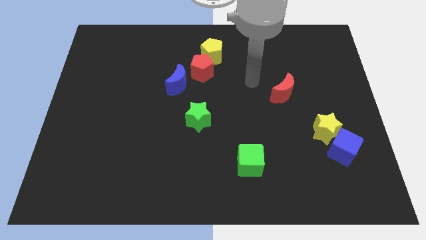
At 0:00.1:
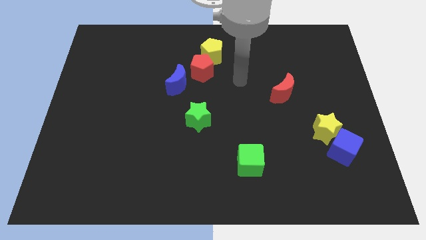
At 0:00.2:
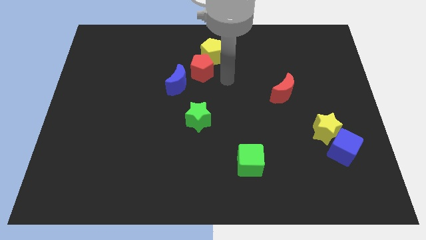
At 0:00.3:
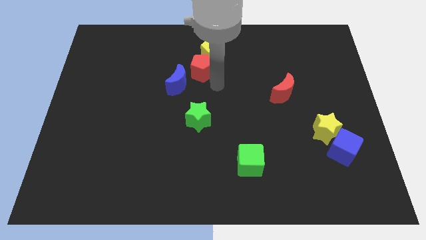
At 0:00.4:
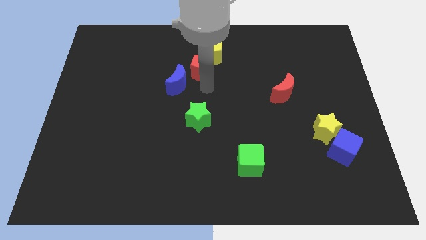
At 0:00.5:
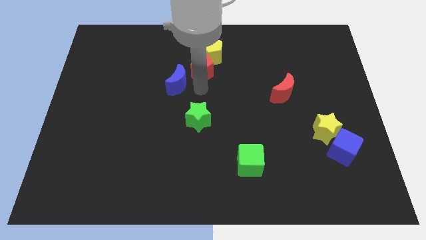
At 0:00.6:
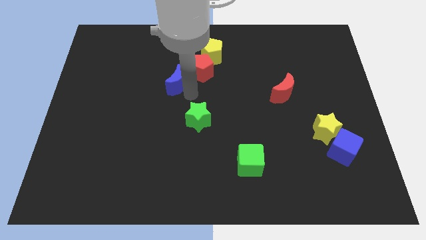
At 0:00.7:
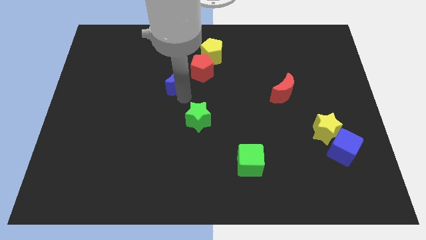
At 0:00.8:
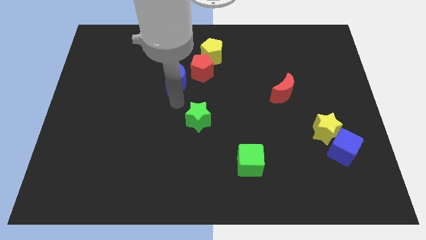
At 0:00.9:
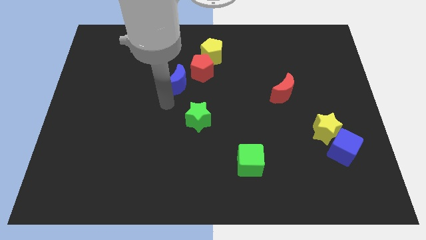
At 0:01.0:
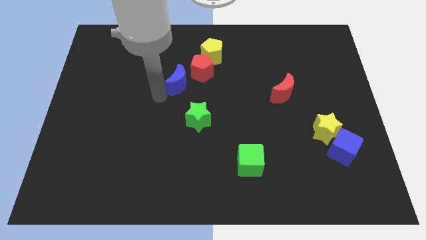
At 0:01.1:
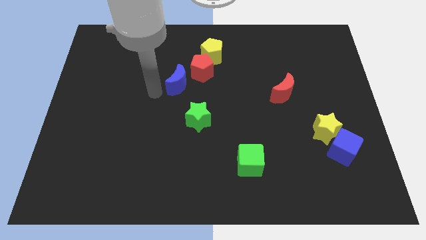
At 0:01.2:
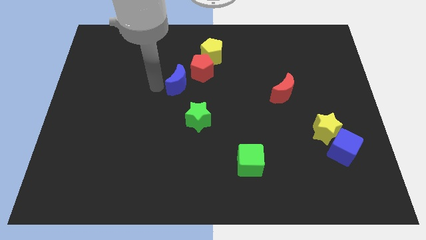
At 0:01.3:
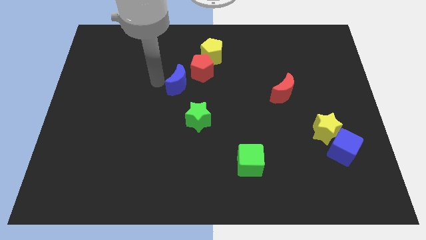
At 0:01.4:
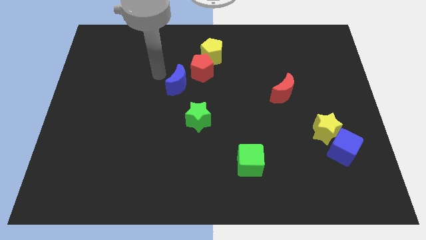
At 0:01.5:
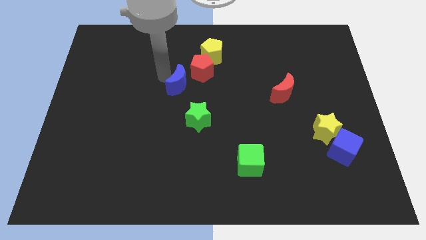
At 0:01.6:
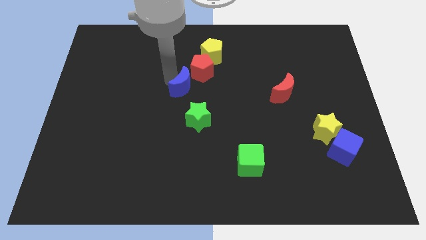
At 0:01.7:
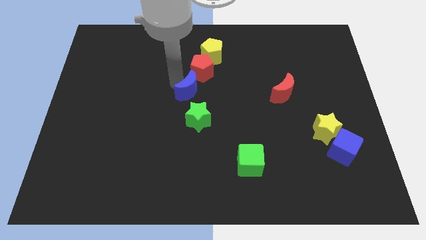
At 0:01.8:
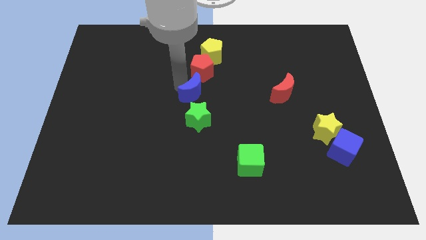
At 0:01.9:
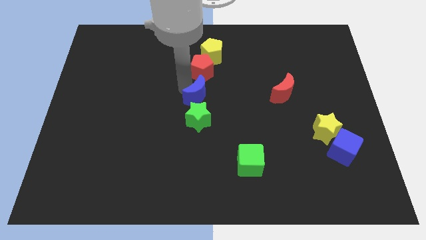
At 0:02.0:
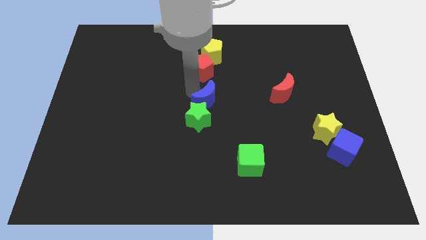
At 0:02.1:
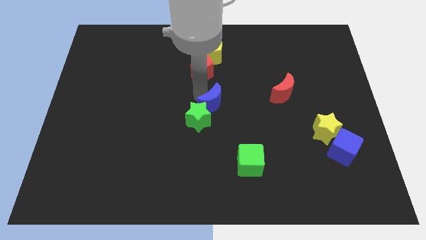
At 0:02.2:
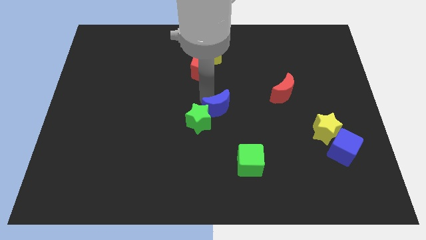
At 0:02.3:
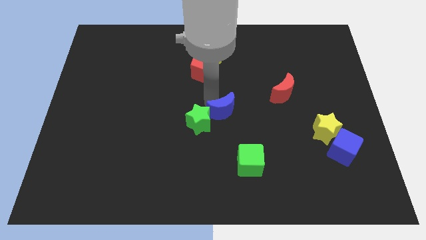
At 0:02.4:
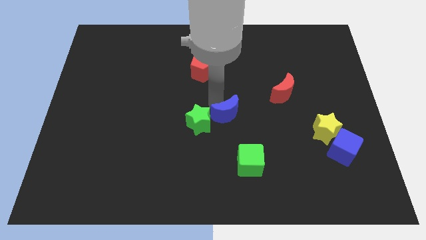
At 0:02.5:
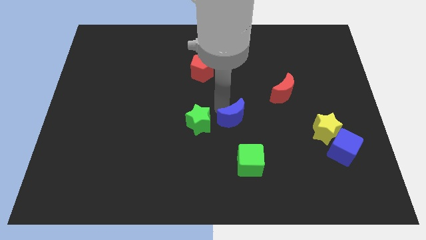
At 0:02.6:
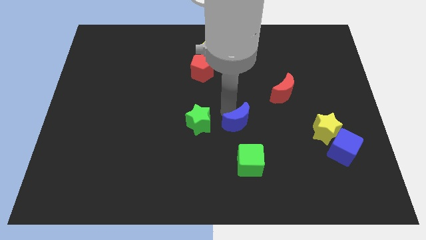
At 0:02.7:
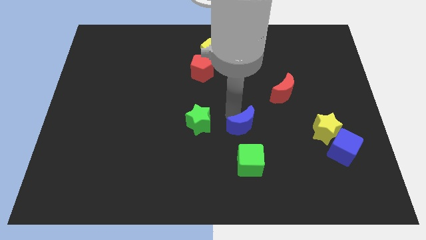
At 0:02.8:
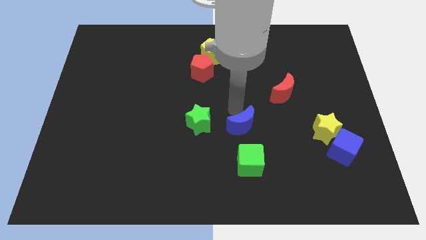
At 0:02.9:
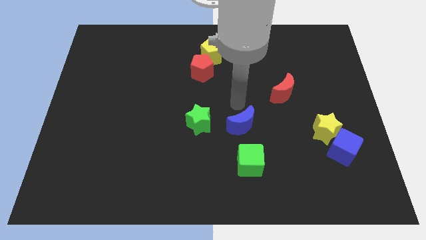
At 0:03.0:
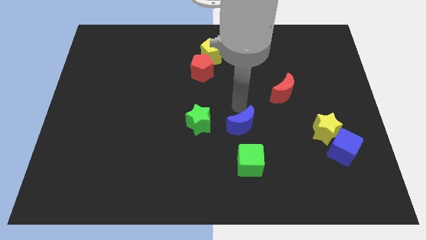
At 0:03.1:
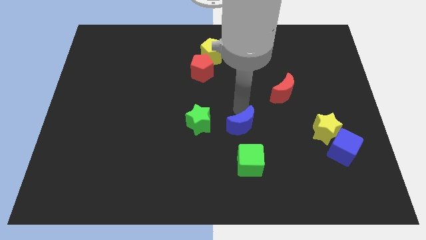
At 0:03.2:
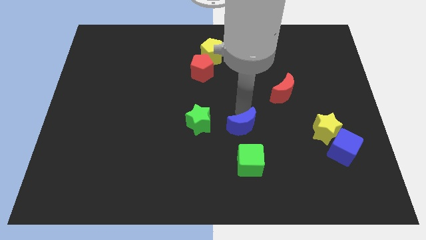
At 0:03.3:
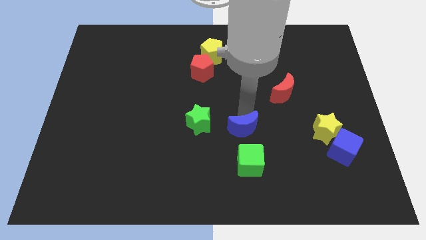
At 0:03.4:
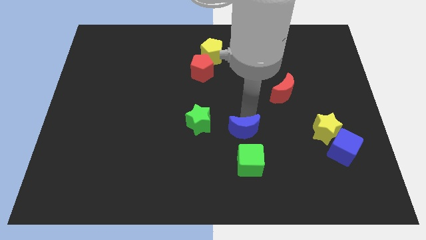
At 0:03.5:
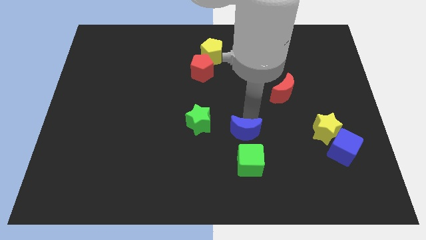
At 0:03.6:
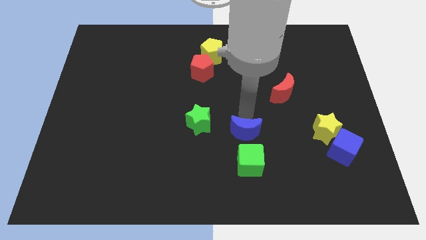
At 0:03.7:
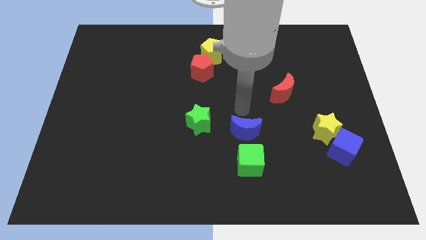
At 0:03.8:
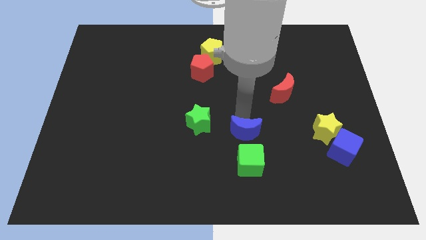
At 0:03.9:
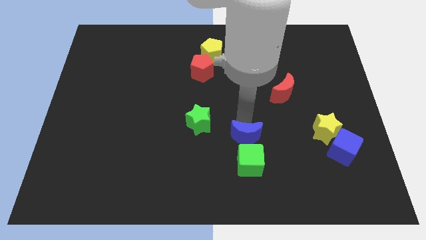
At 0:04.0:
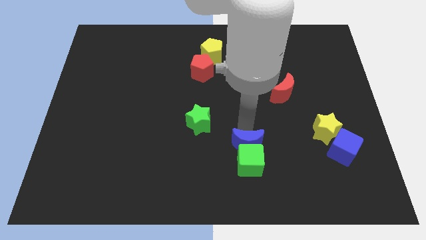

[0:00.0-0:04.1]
put the blue moon towards the green cube

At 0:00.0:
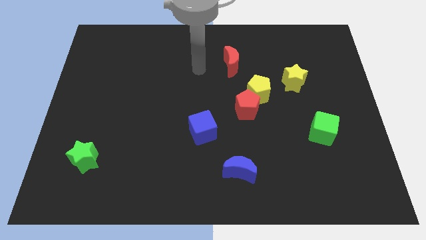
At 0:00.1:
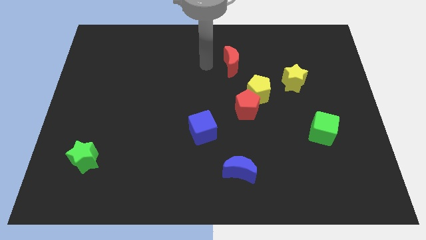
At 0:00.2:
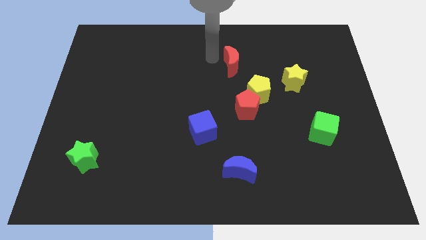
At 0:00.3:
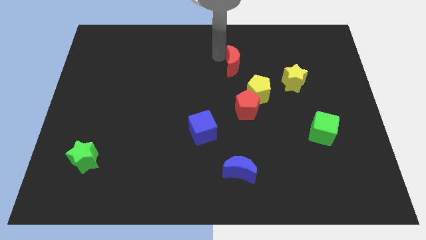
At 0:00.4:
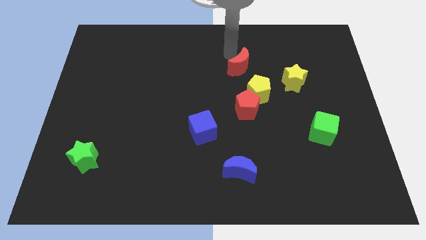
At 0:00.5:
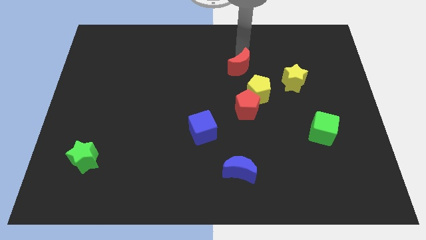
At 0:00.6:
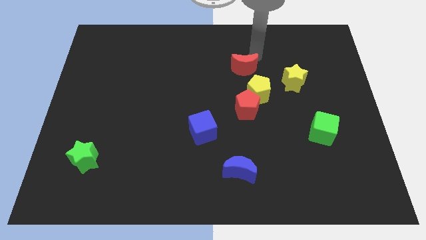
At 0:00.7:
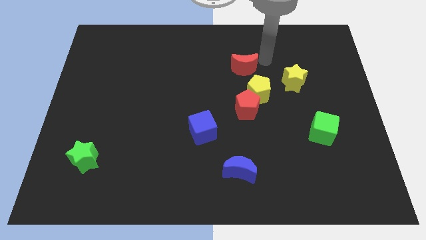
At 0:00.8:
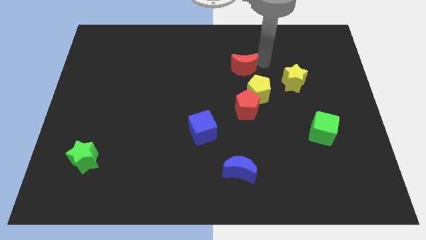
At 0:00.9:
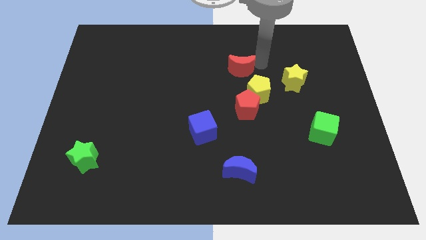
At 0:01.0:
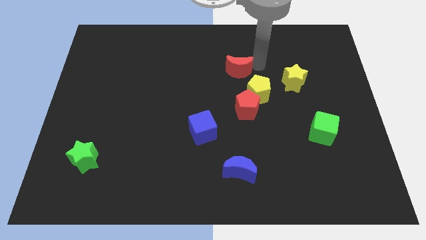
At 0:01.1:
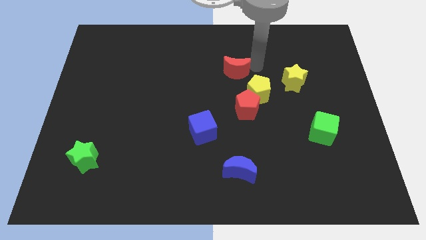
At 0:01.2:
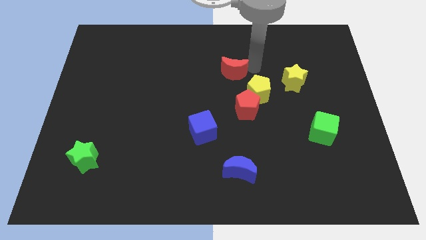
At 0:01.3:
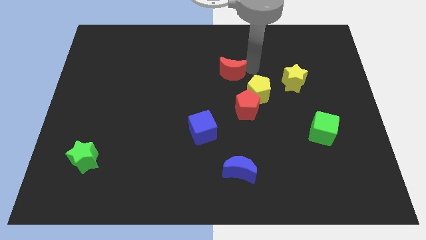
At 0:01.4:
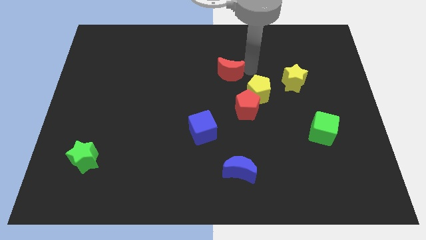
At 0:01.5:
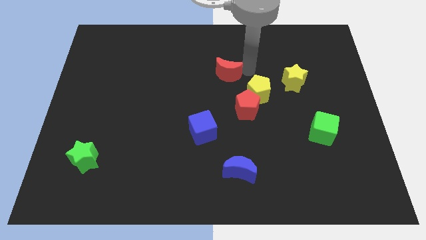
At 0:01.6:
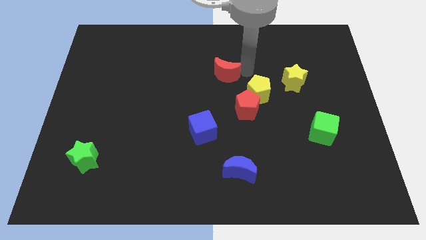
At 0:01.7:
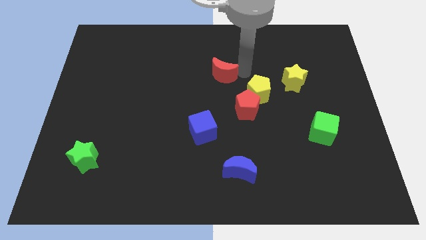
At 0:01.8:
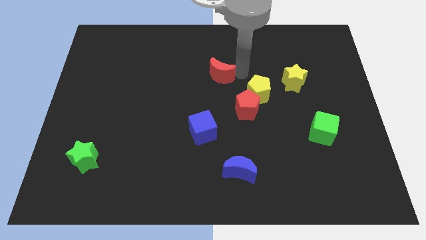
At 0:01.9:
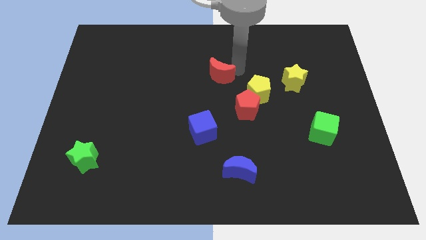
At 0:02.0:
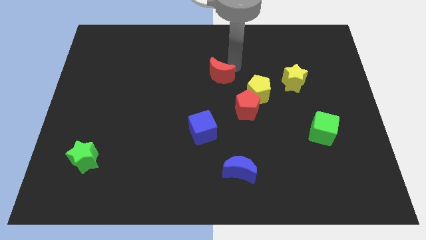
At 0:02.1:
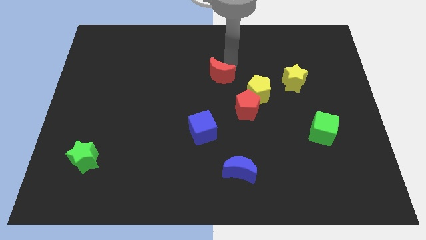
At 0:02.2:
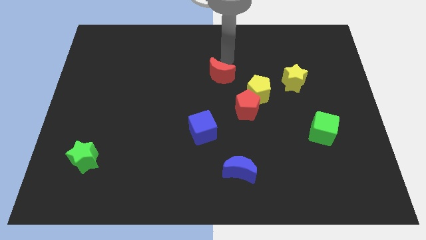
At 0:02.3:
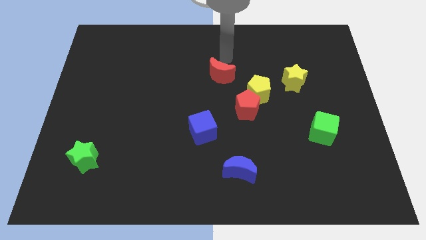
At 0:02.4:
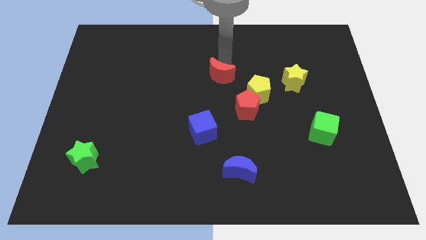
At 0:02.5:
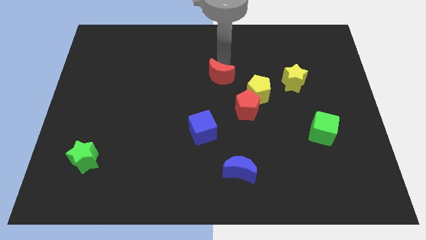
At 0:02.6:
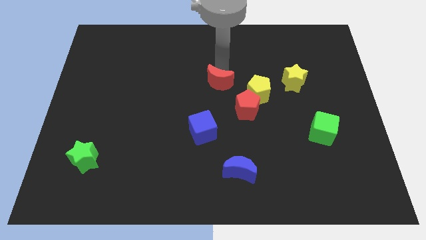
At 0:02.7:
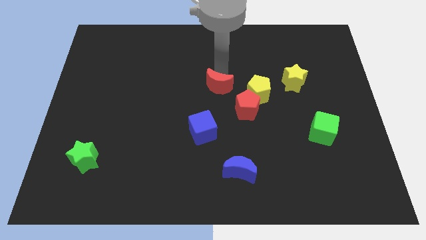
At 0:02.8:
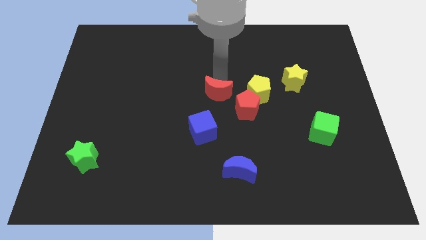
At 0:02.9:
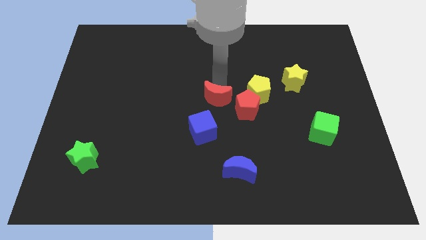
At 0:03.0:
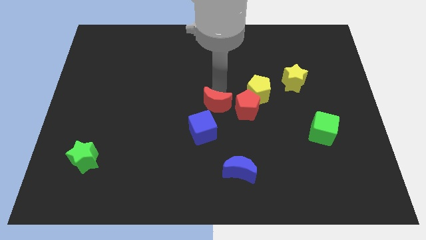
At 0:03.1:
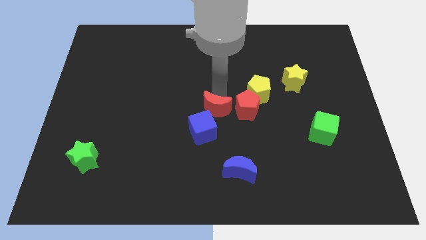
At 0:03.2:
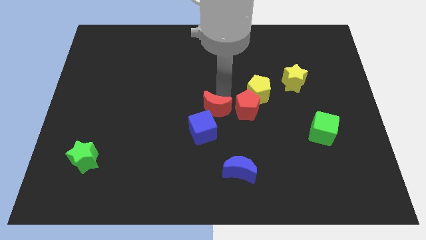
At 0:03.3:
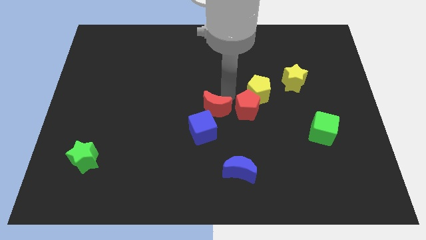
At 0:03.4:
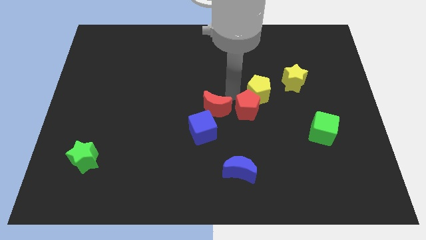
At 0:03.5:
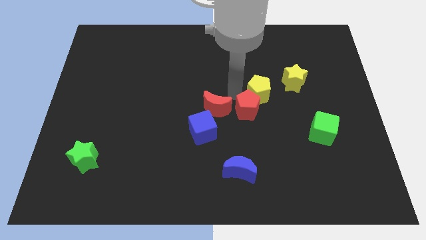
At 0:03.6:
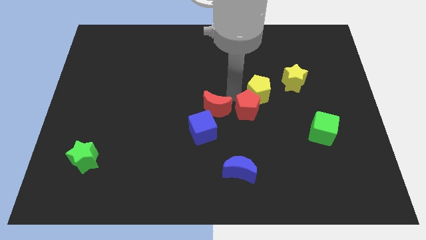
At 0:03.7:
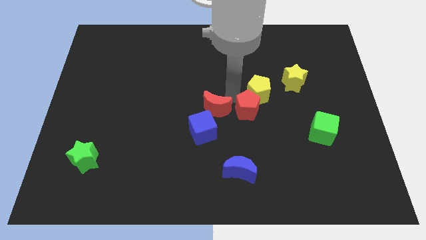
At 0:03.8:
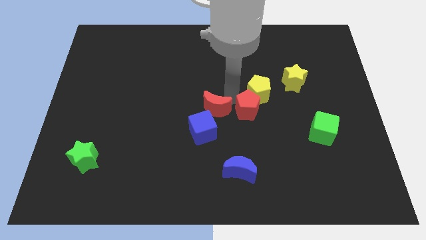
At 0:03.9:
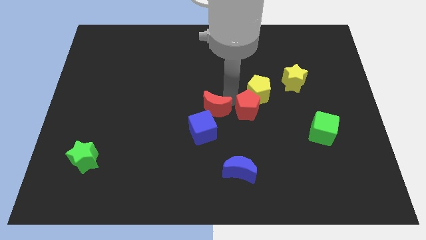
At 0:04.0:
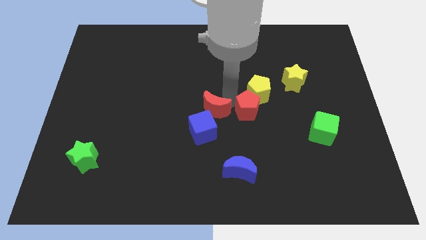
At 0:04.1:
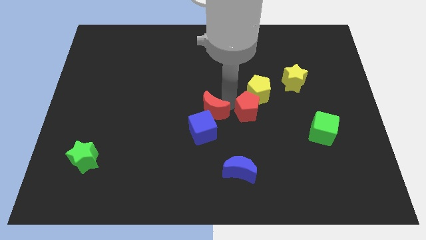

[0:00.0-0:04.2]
slide the red moon towards the blue cube
